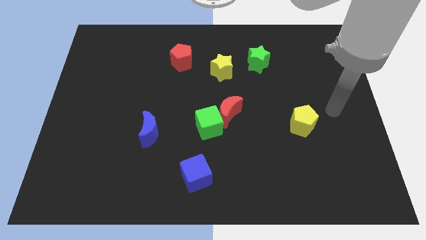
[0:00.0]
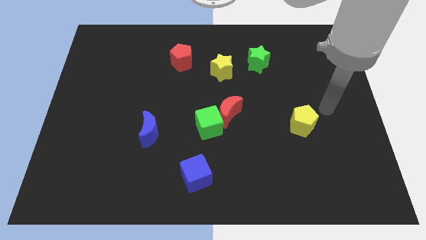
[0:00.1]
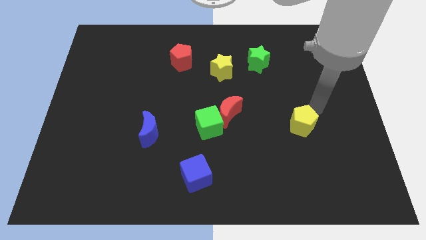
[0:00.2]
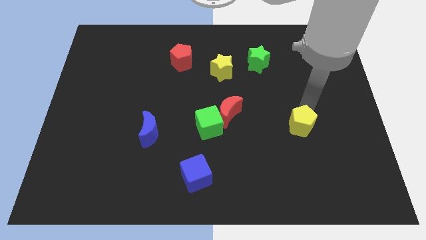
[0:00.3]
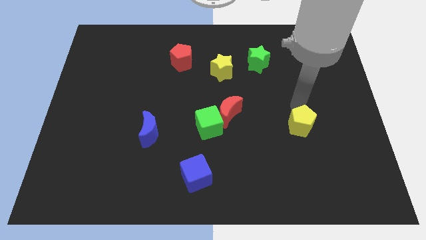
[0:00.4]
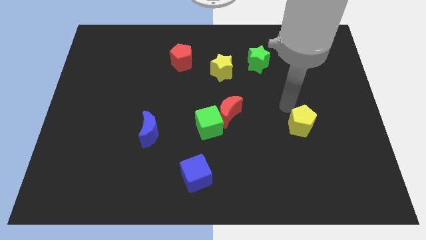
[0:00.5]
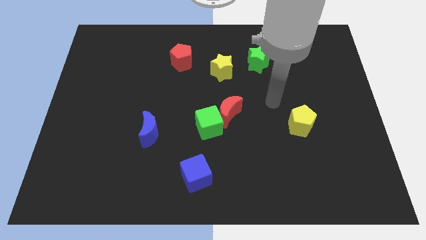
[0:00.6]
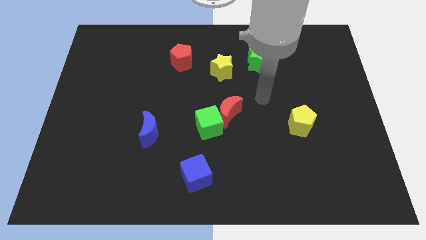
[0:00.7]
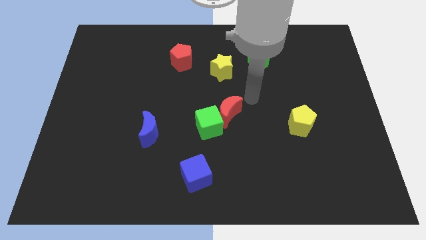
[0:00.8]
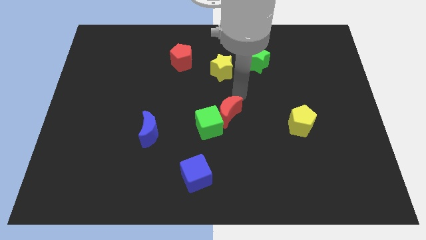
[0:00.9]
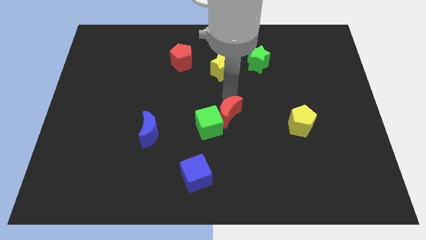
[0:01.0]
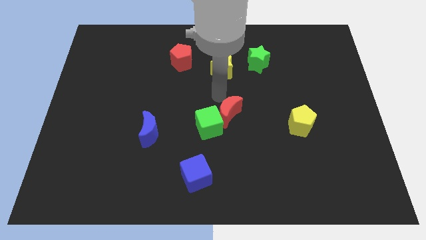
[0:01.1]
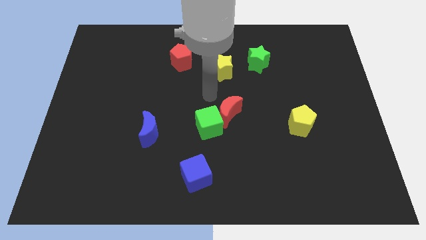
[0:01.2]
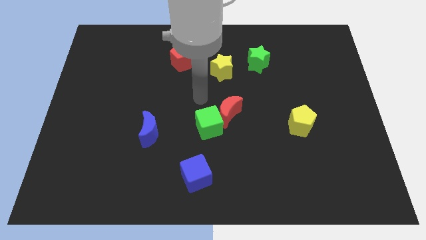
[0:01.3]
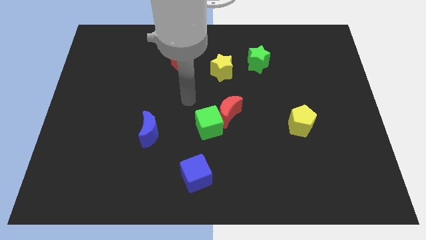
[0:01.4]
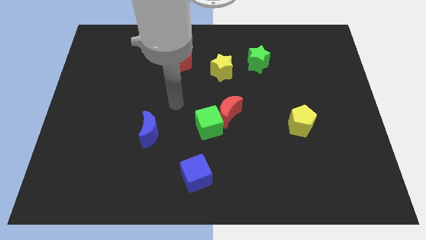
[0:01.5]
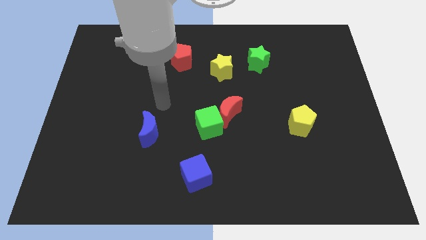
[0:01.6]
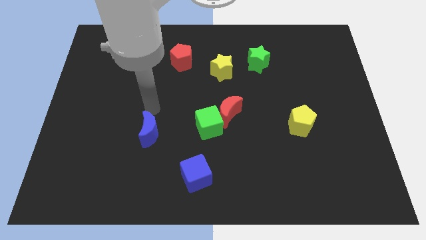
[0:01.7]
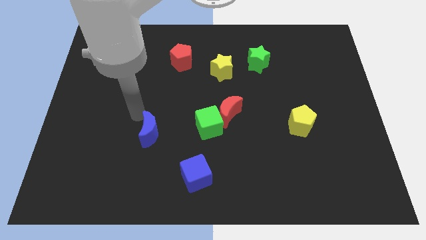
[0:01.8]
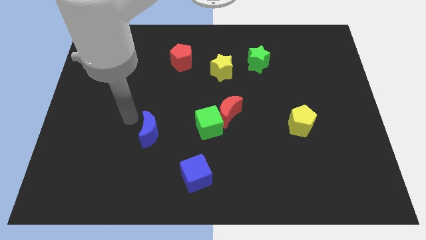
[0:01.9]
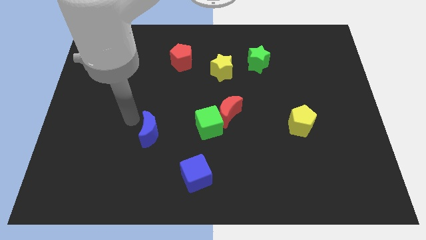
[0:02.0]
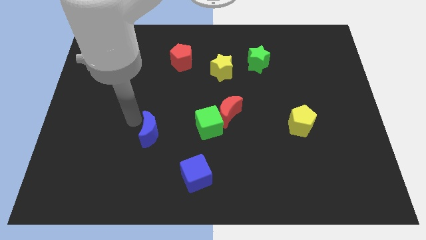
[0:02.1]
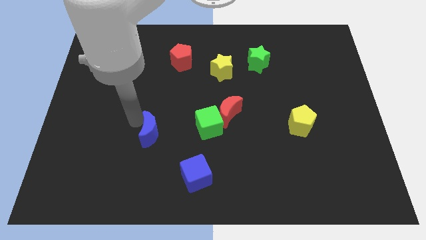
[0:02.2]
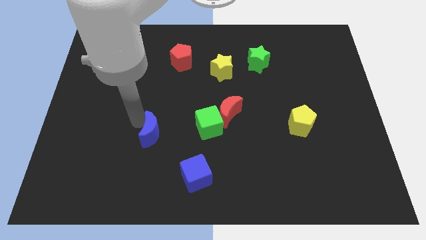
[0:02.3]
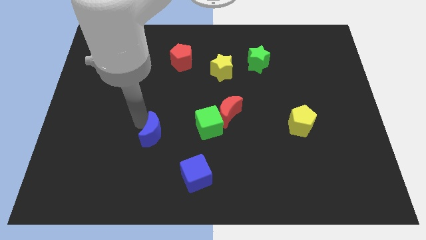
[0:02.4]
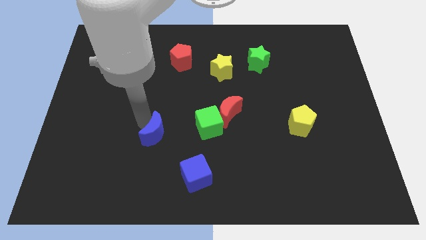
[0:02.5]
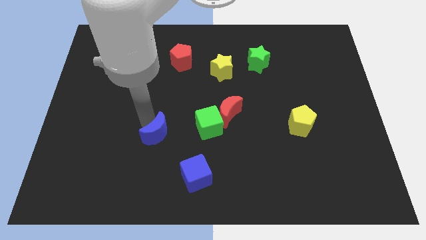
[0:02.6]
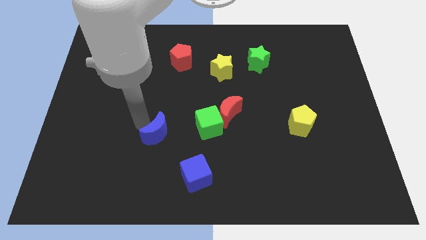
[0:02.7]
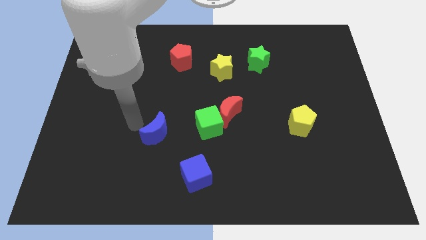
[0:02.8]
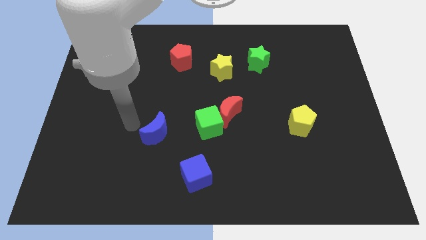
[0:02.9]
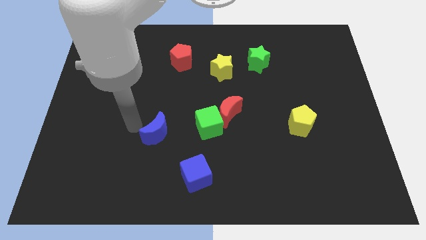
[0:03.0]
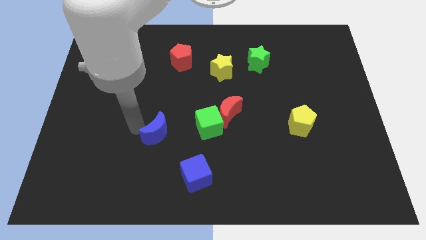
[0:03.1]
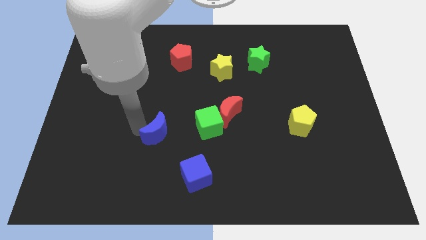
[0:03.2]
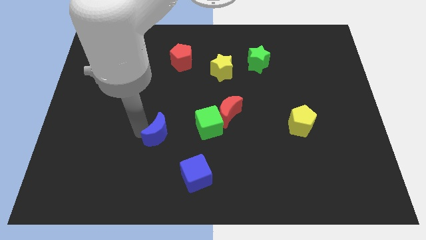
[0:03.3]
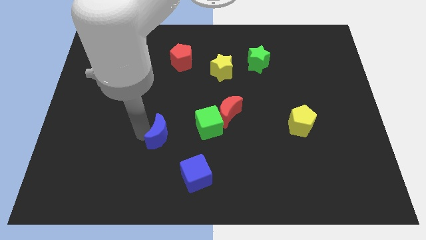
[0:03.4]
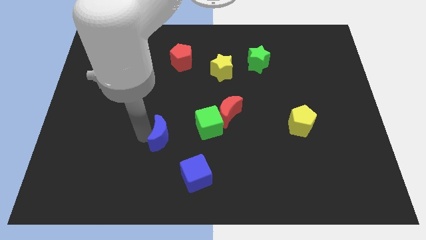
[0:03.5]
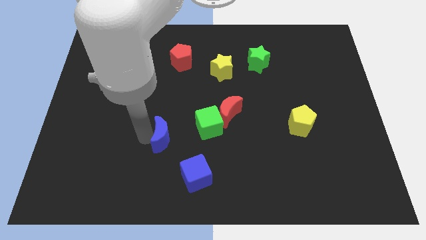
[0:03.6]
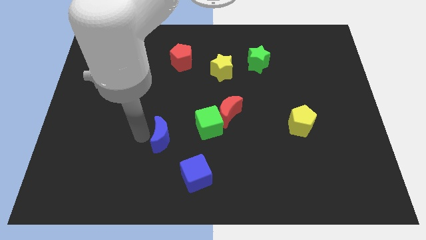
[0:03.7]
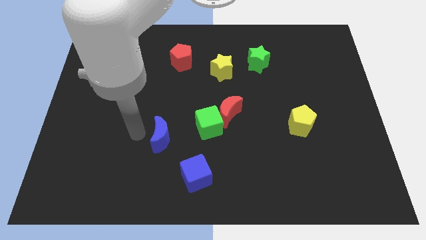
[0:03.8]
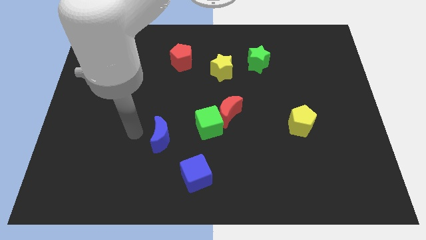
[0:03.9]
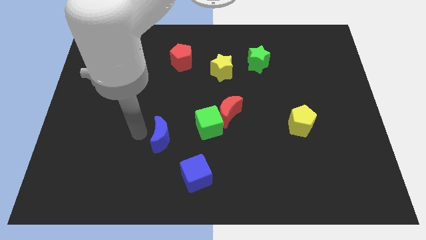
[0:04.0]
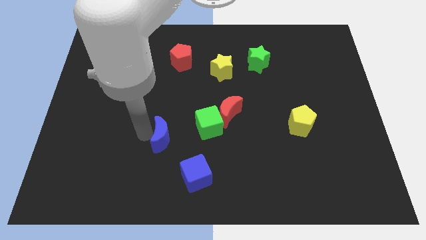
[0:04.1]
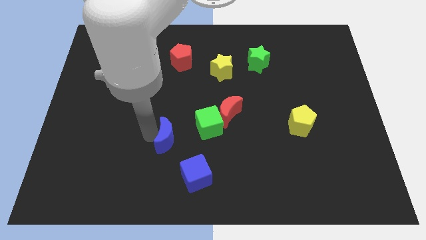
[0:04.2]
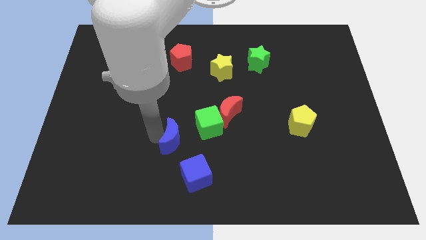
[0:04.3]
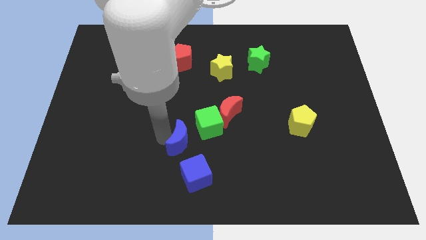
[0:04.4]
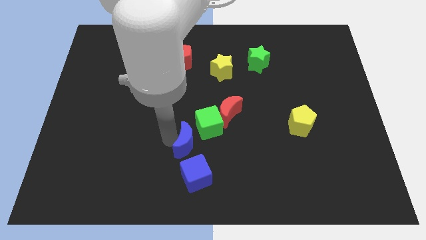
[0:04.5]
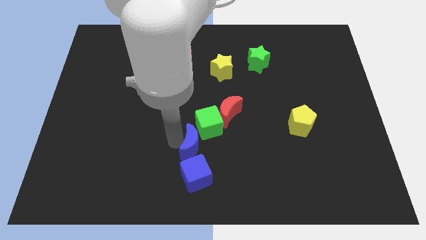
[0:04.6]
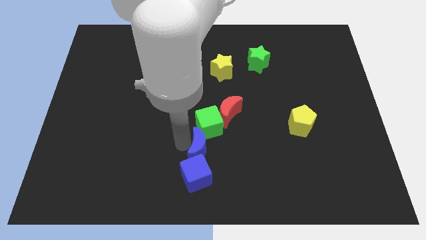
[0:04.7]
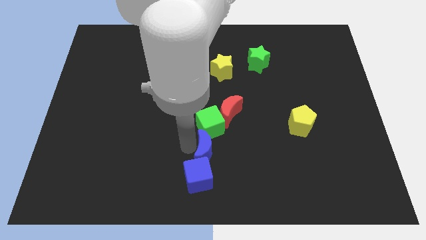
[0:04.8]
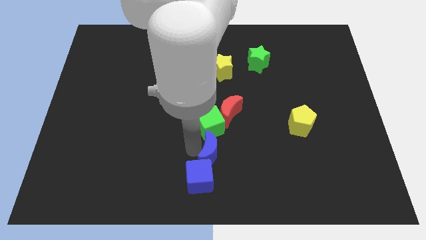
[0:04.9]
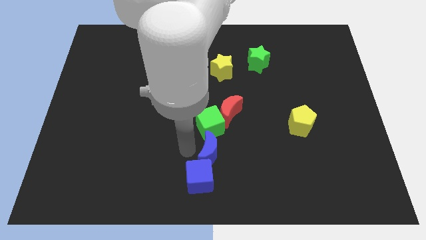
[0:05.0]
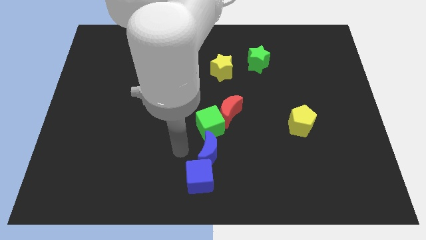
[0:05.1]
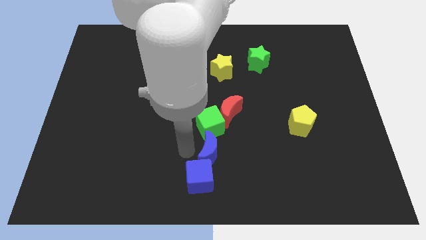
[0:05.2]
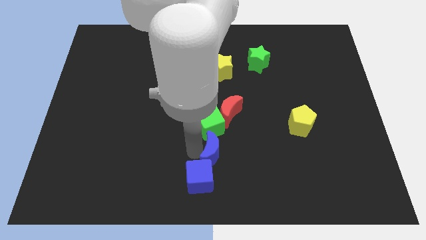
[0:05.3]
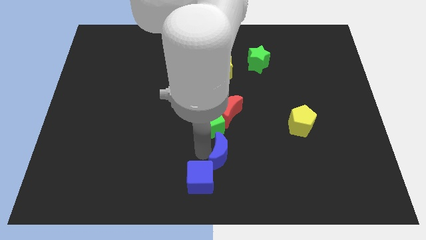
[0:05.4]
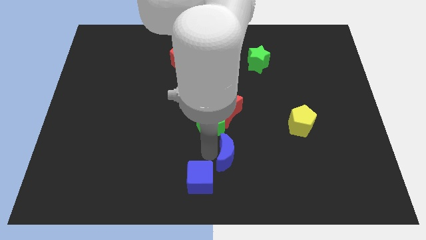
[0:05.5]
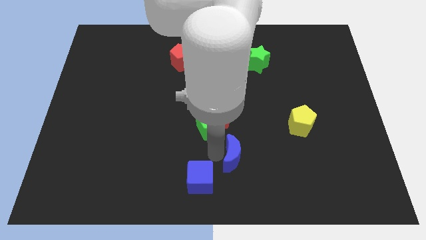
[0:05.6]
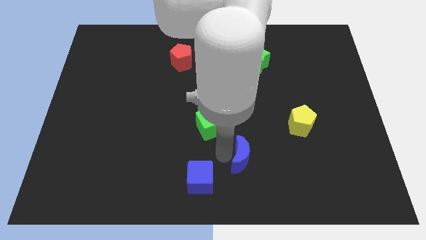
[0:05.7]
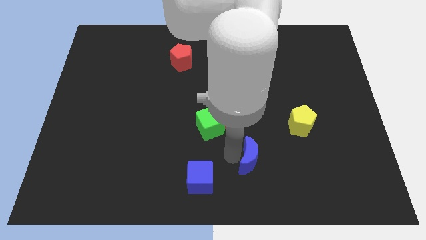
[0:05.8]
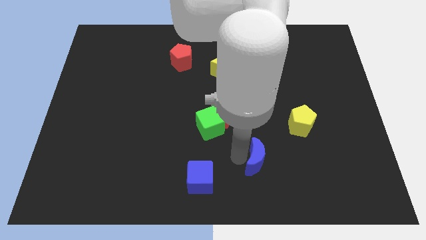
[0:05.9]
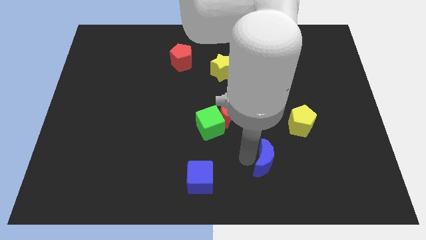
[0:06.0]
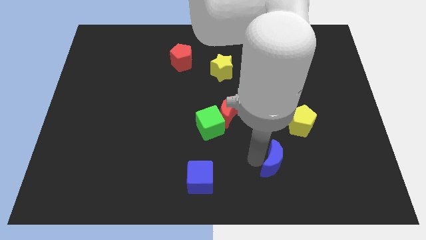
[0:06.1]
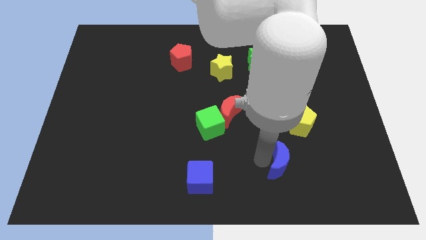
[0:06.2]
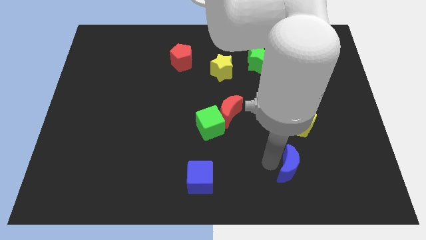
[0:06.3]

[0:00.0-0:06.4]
push the blue moon to the bottom side of the yellow pentagon

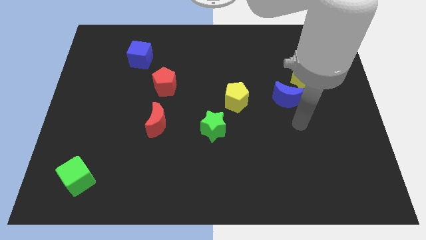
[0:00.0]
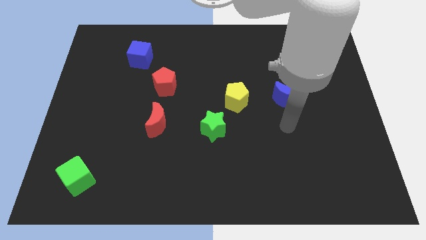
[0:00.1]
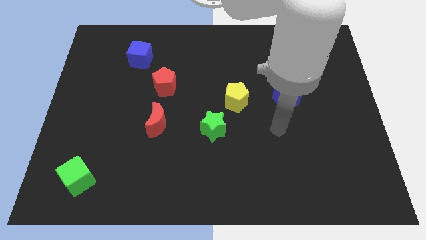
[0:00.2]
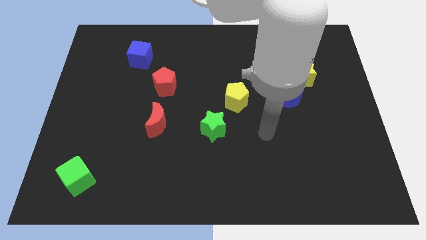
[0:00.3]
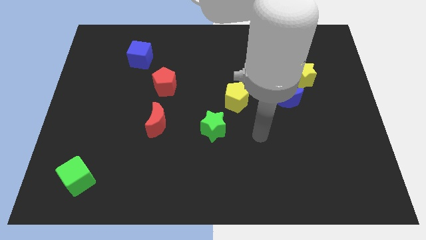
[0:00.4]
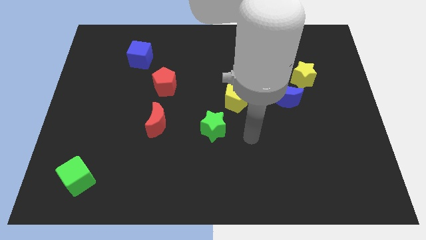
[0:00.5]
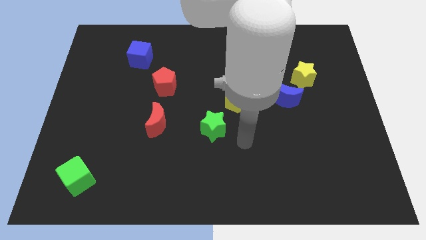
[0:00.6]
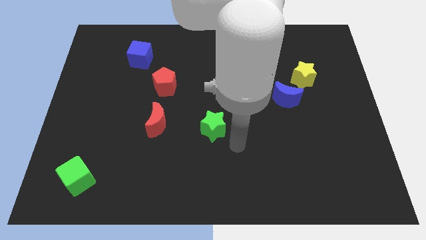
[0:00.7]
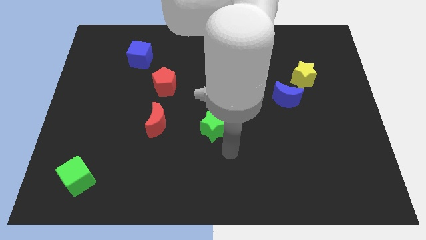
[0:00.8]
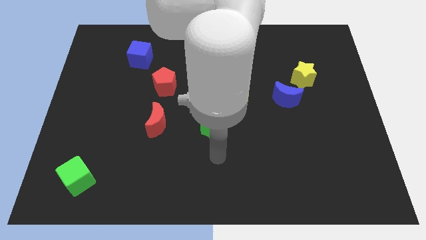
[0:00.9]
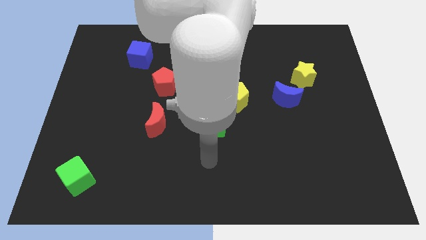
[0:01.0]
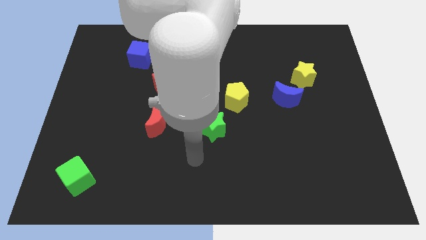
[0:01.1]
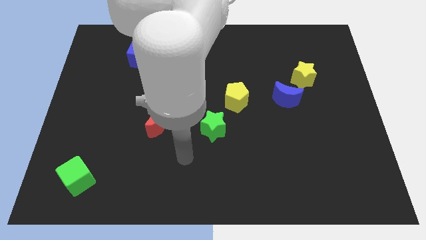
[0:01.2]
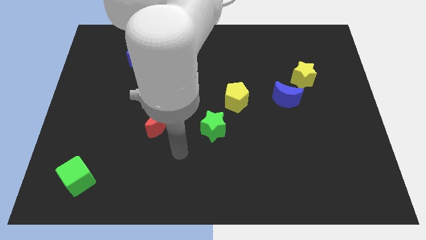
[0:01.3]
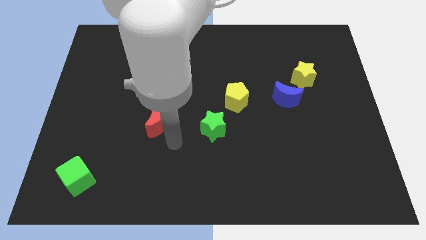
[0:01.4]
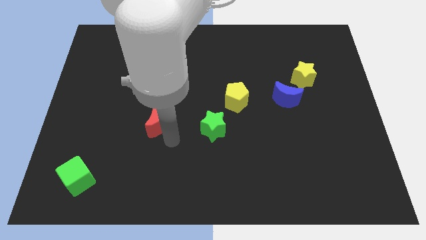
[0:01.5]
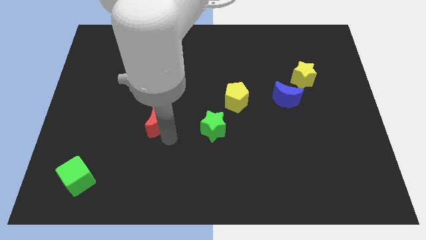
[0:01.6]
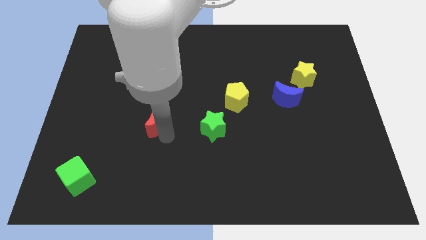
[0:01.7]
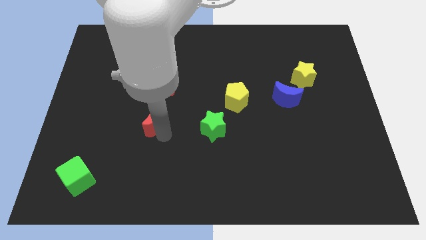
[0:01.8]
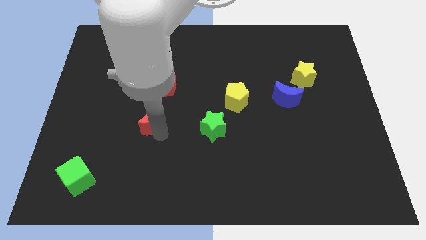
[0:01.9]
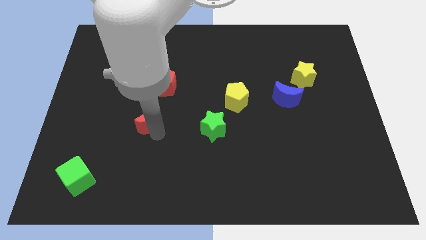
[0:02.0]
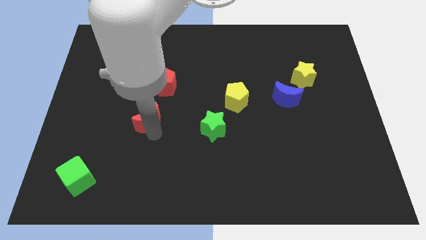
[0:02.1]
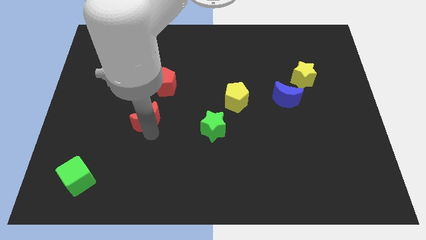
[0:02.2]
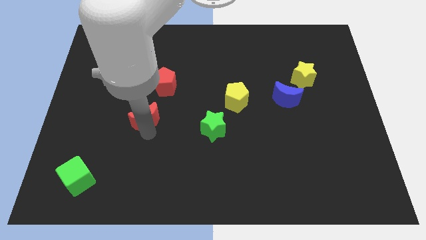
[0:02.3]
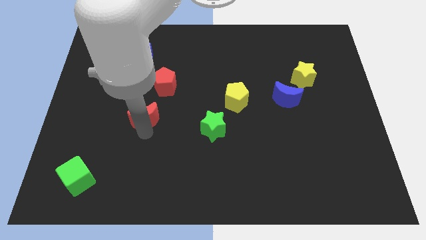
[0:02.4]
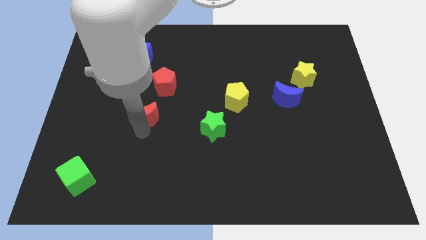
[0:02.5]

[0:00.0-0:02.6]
move the red moon to the bottom left of the red pentagon
